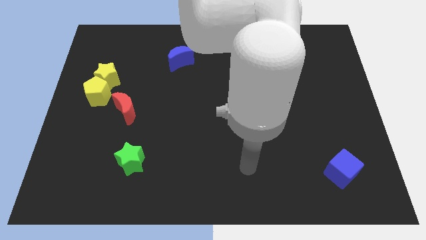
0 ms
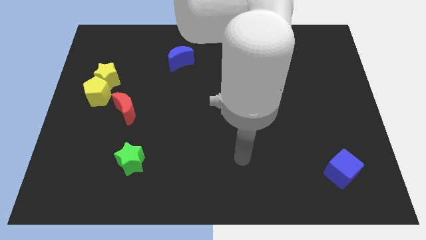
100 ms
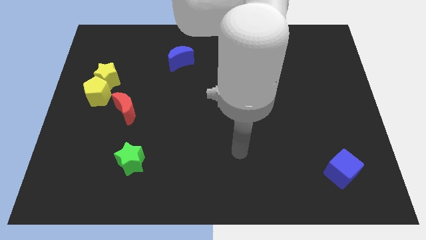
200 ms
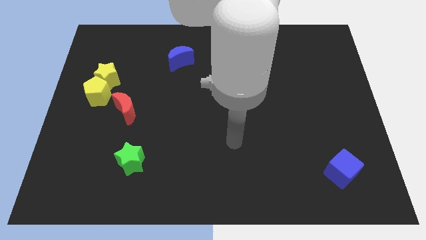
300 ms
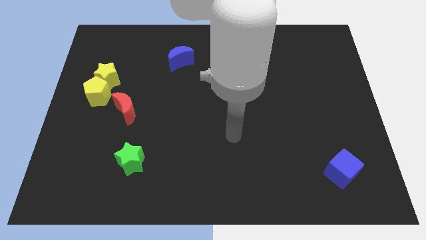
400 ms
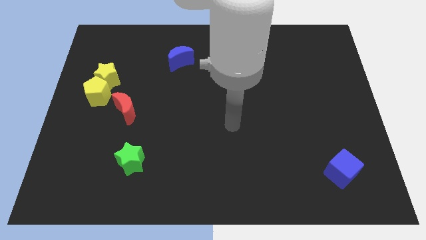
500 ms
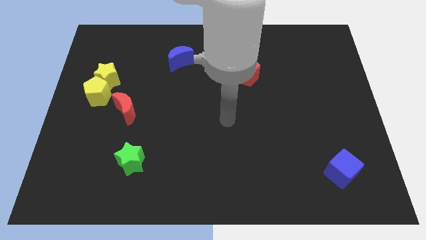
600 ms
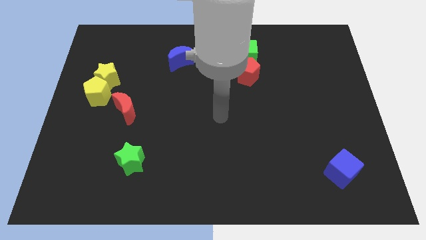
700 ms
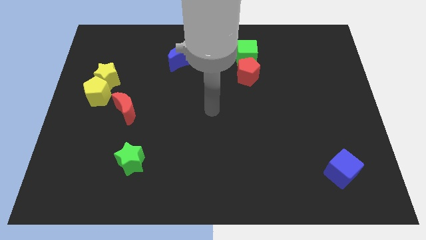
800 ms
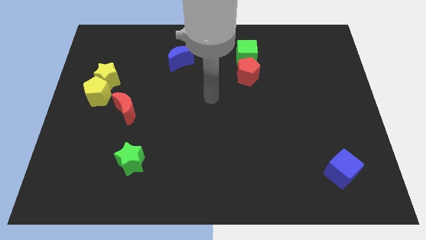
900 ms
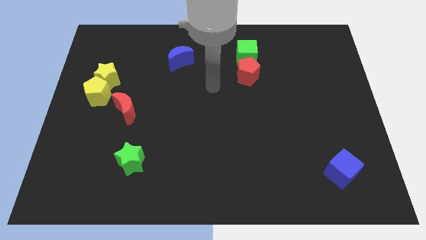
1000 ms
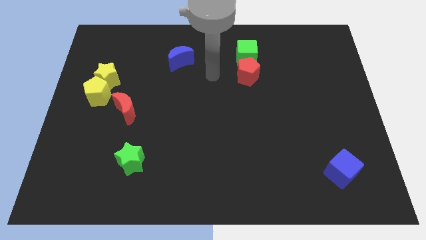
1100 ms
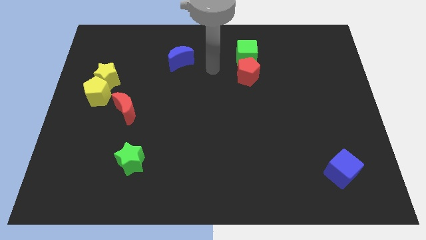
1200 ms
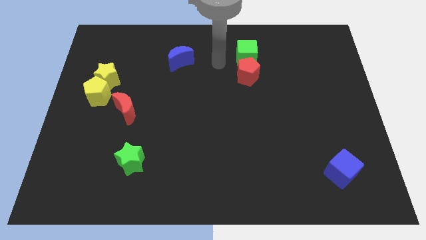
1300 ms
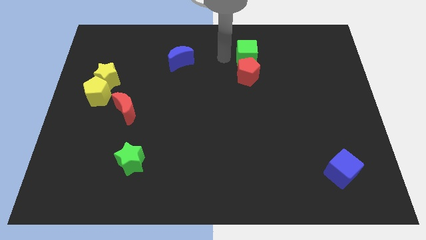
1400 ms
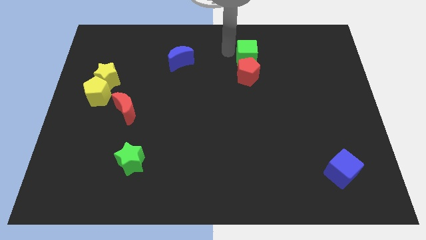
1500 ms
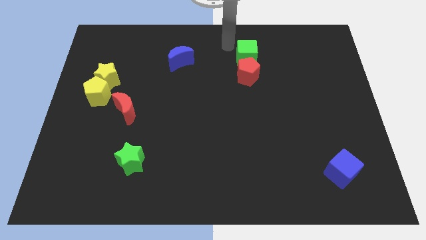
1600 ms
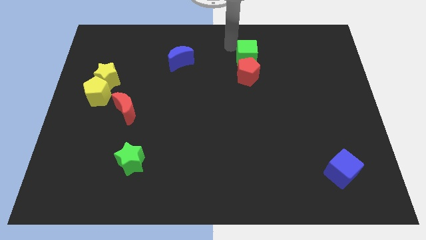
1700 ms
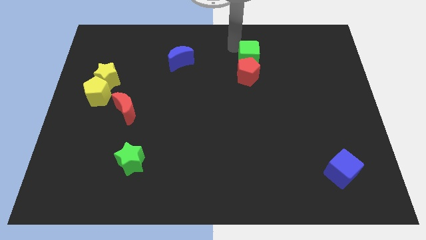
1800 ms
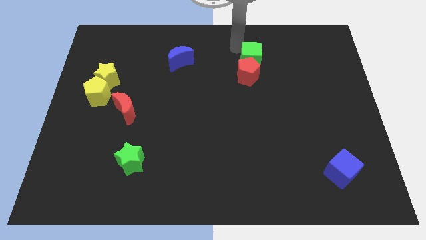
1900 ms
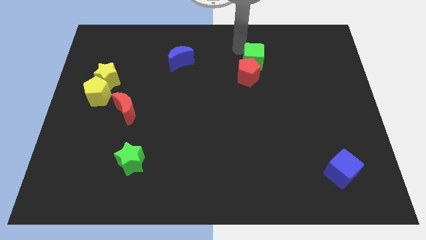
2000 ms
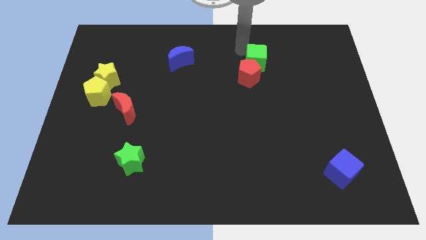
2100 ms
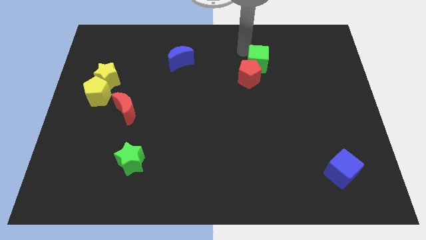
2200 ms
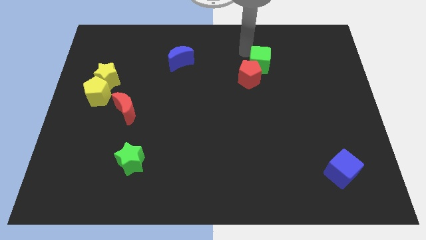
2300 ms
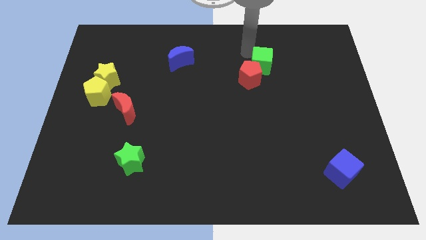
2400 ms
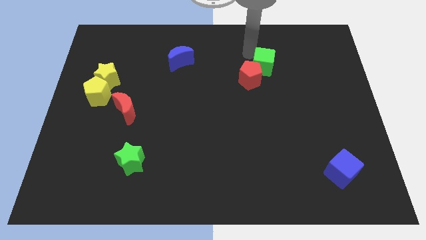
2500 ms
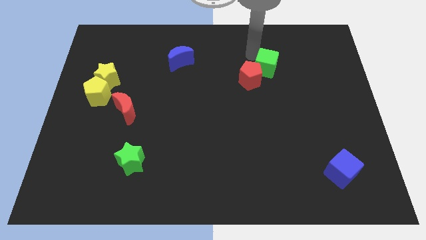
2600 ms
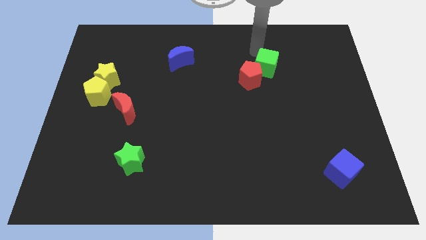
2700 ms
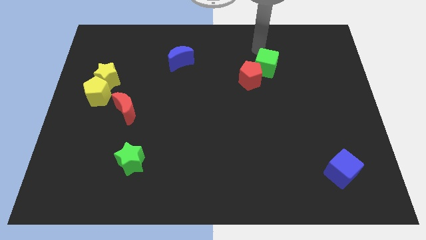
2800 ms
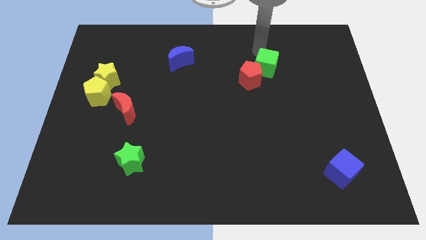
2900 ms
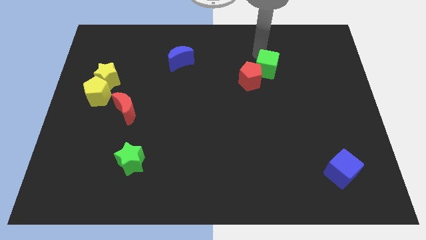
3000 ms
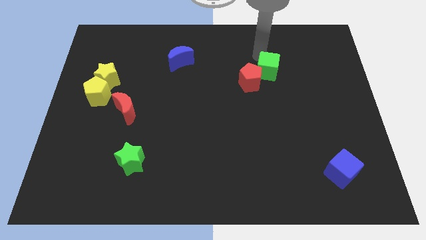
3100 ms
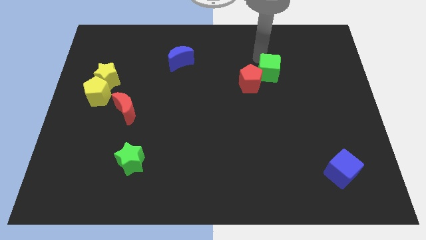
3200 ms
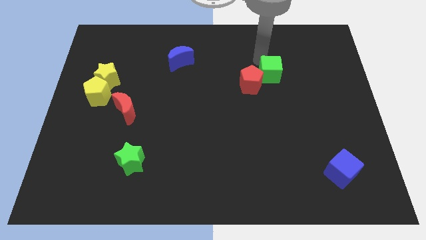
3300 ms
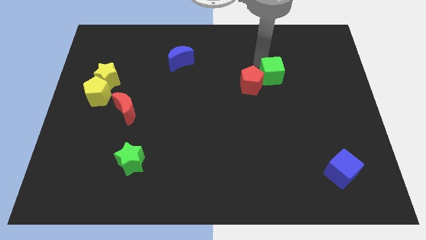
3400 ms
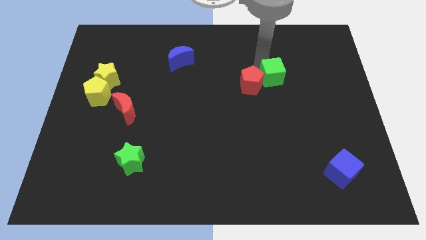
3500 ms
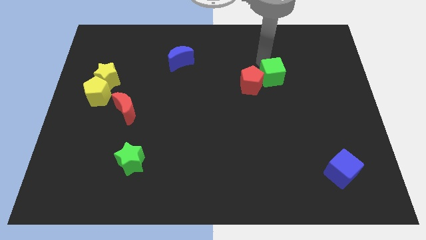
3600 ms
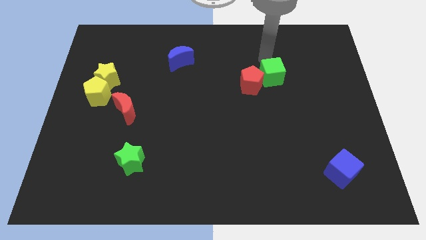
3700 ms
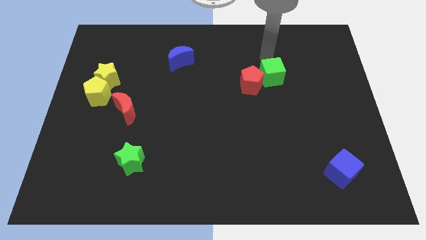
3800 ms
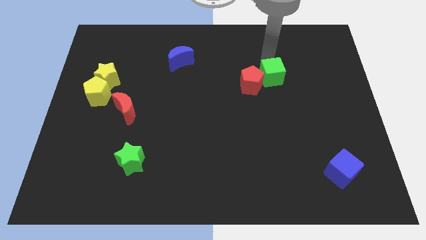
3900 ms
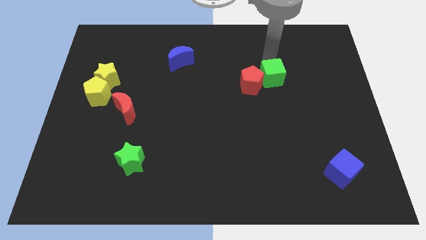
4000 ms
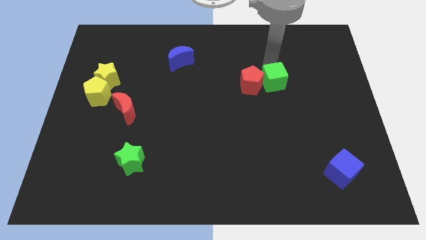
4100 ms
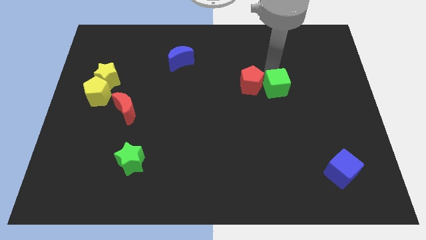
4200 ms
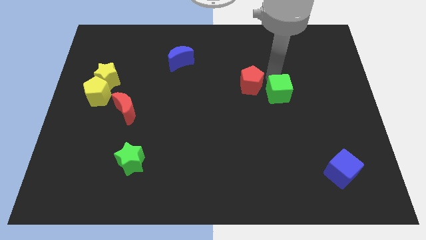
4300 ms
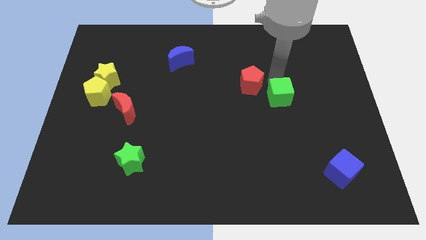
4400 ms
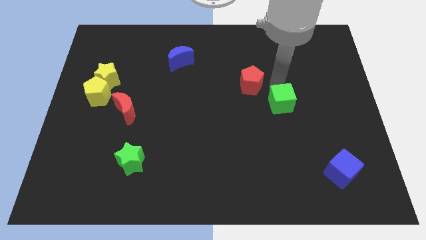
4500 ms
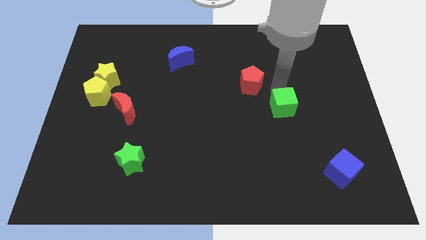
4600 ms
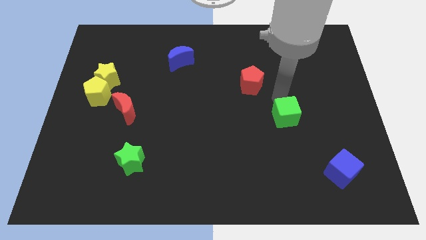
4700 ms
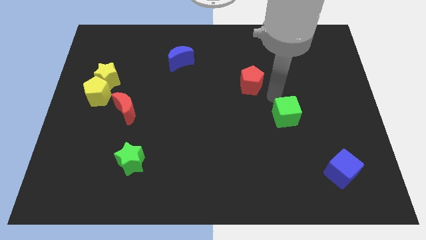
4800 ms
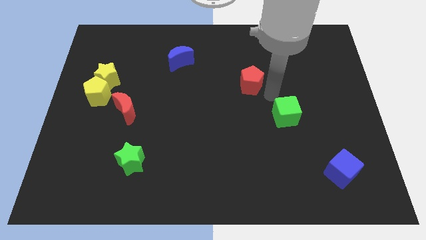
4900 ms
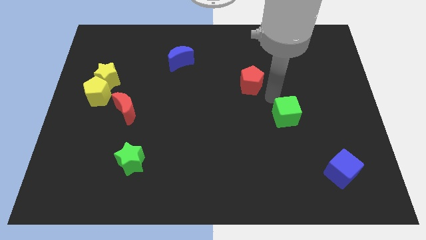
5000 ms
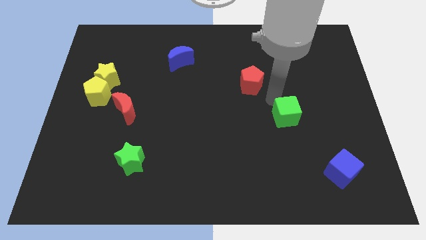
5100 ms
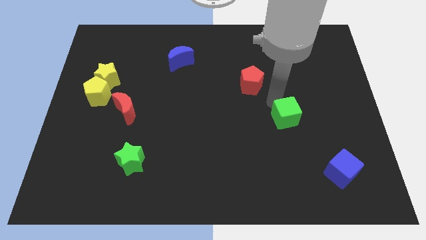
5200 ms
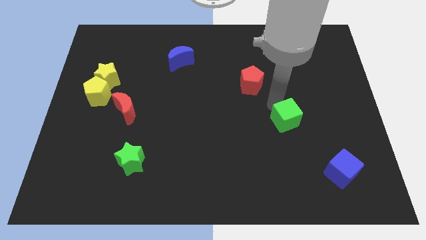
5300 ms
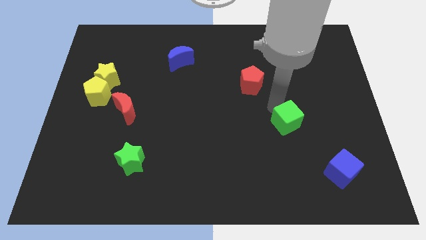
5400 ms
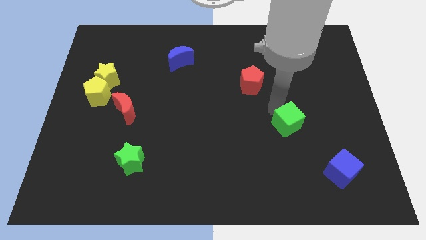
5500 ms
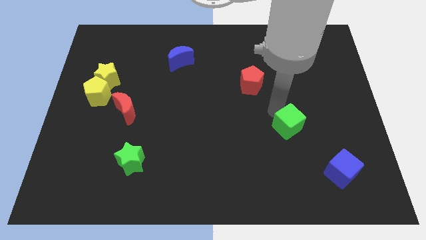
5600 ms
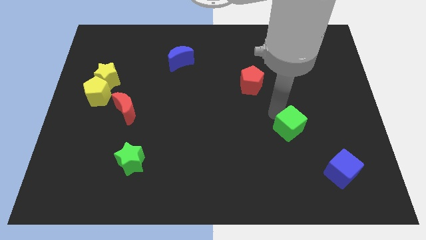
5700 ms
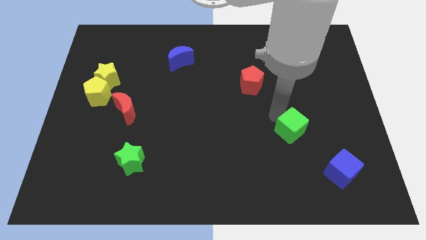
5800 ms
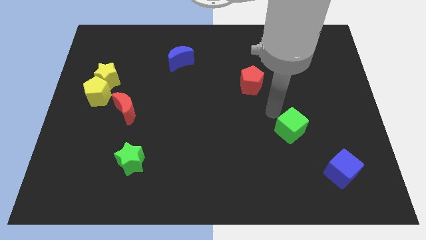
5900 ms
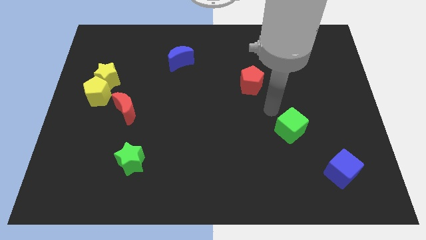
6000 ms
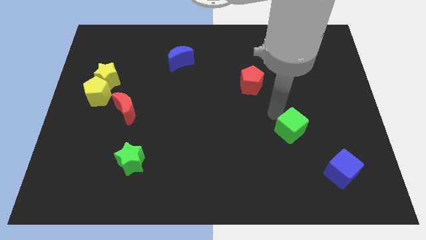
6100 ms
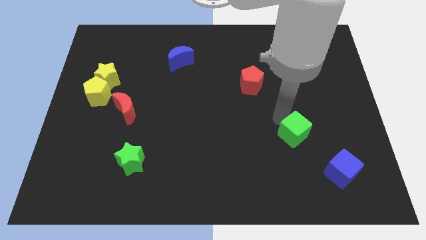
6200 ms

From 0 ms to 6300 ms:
slide the green cube to the top left side of the blue cube
